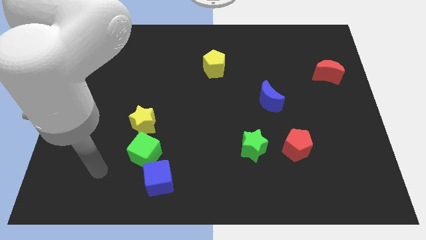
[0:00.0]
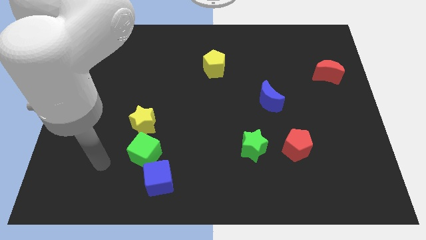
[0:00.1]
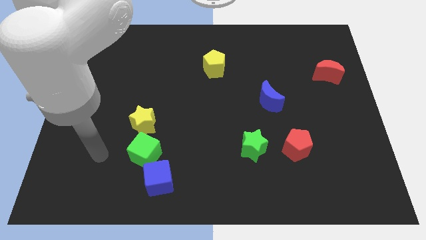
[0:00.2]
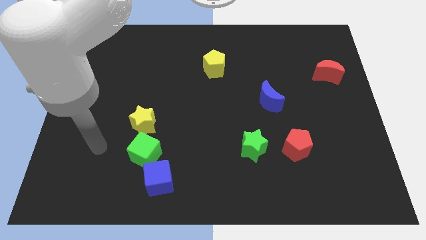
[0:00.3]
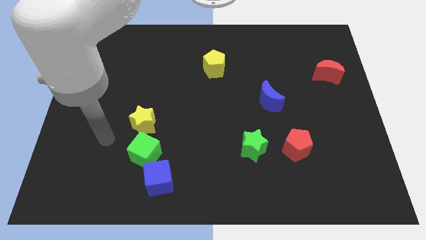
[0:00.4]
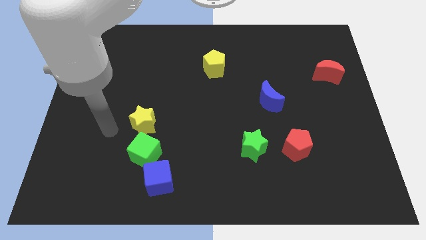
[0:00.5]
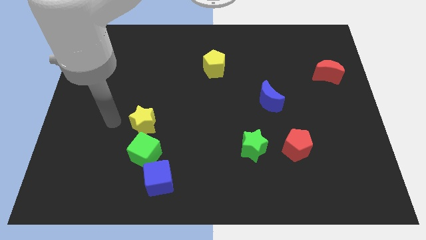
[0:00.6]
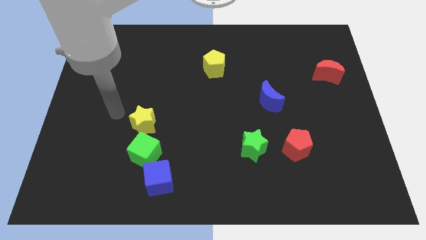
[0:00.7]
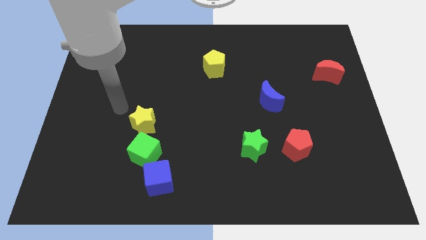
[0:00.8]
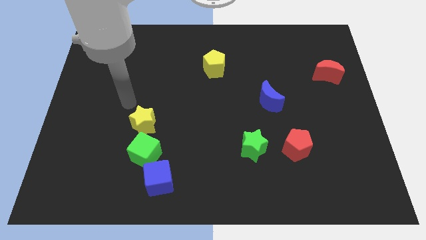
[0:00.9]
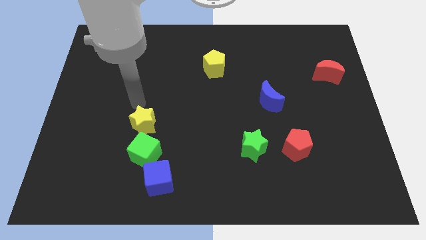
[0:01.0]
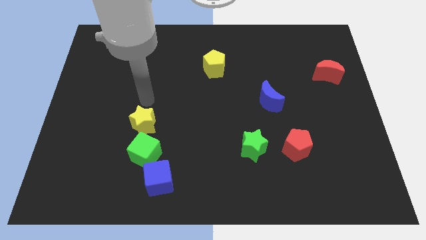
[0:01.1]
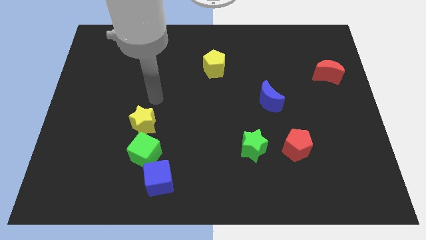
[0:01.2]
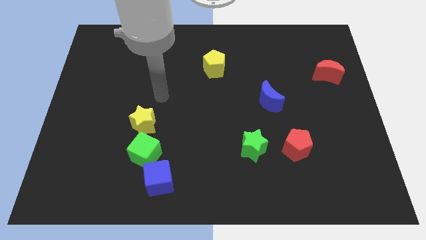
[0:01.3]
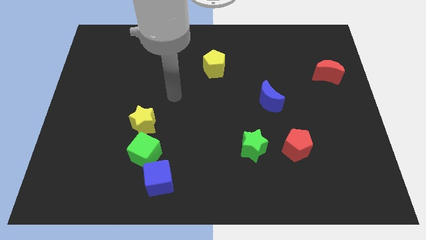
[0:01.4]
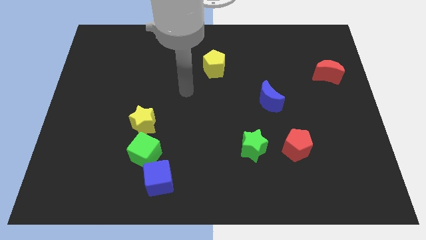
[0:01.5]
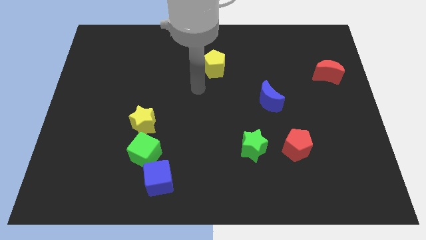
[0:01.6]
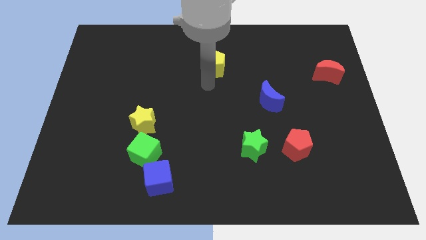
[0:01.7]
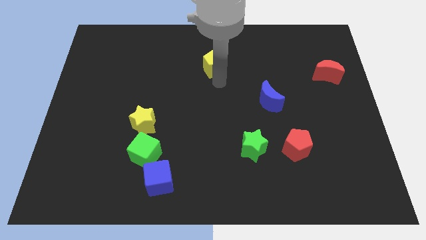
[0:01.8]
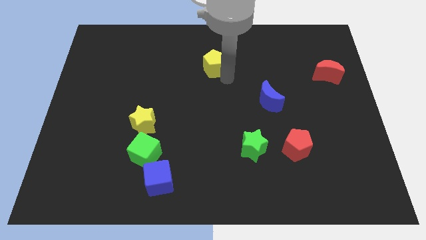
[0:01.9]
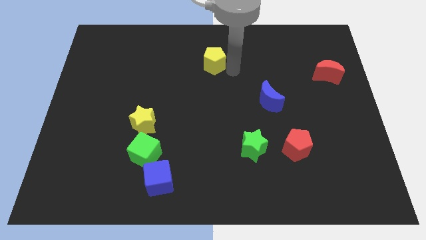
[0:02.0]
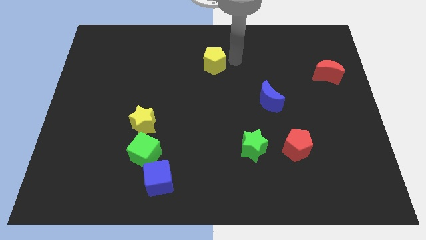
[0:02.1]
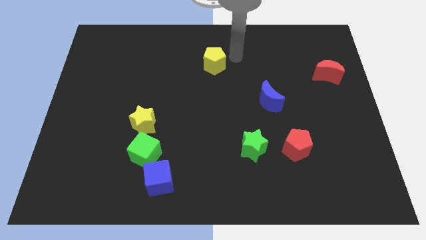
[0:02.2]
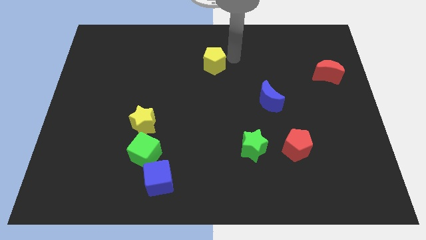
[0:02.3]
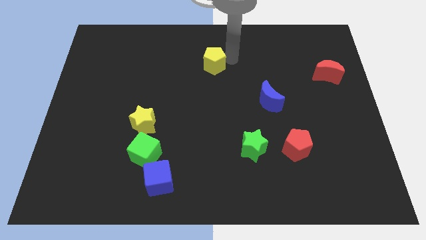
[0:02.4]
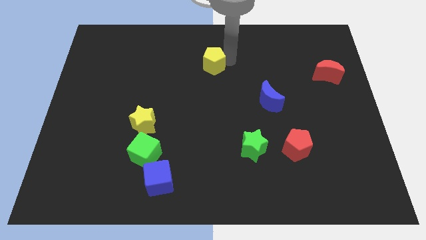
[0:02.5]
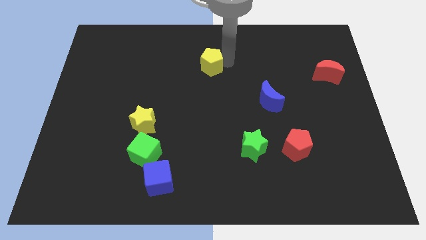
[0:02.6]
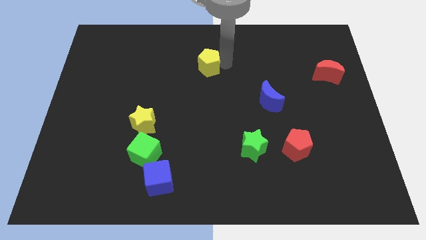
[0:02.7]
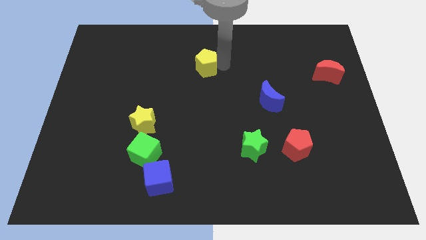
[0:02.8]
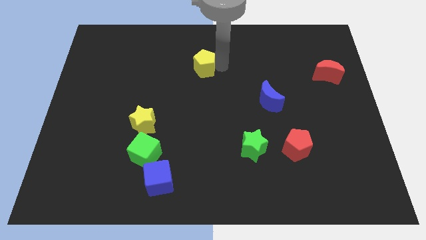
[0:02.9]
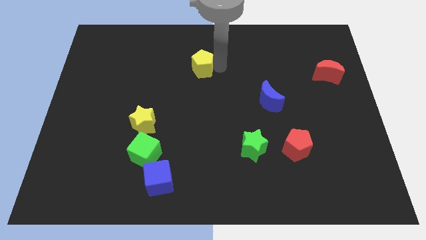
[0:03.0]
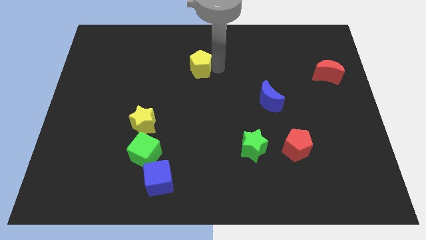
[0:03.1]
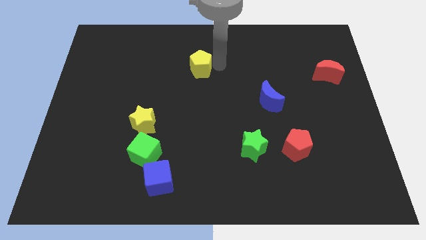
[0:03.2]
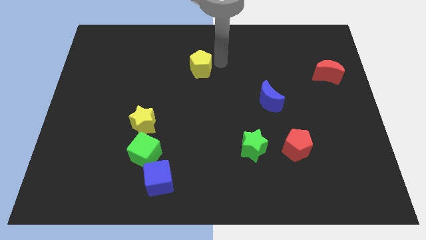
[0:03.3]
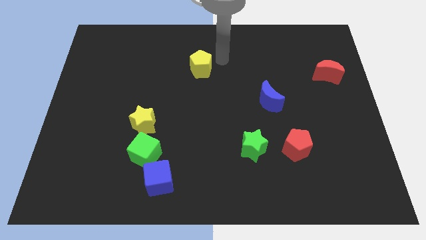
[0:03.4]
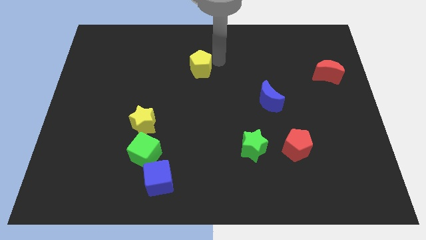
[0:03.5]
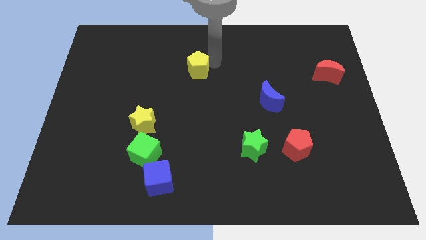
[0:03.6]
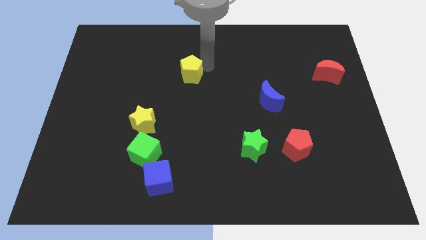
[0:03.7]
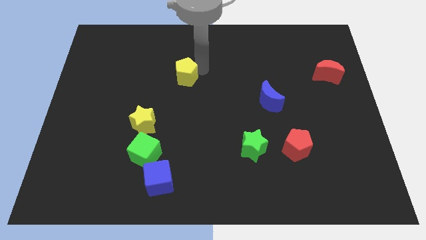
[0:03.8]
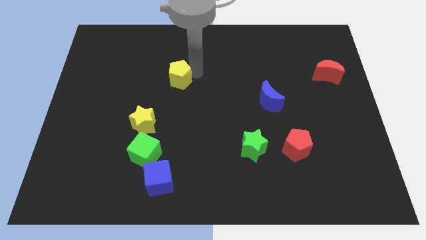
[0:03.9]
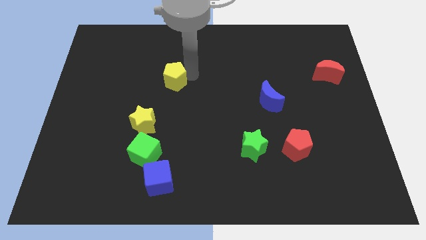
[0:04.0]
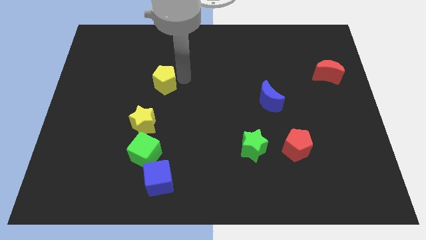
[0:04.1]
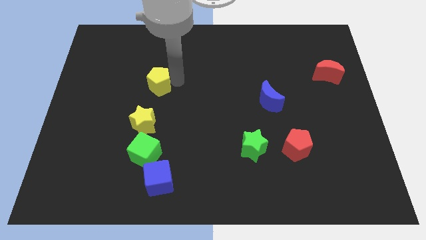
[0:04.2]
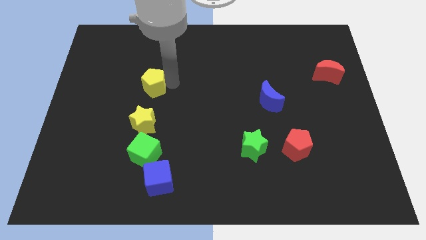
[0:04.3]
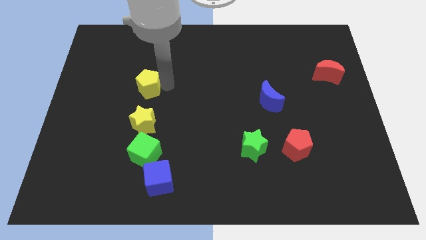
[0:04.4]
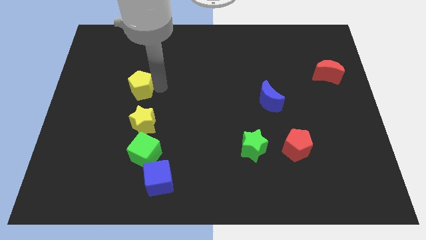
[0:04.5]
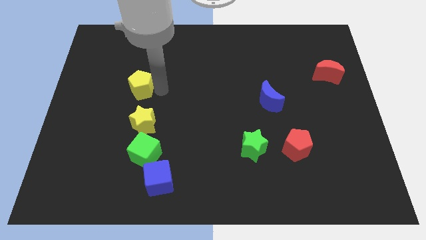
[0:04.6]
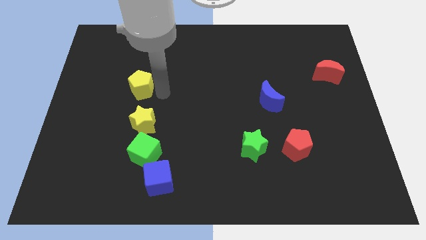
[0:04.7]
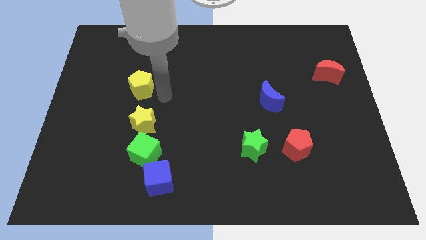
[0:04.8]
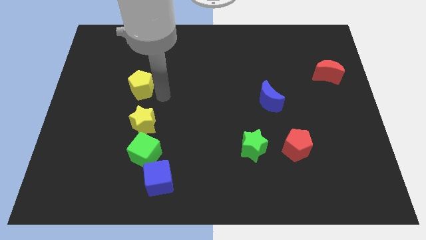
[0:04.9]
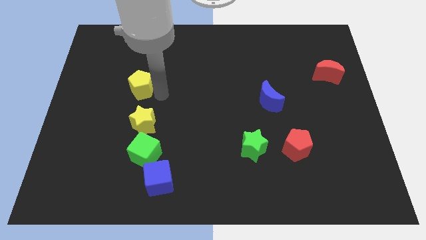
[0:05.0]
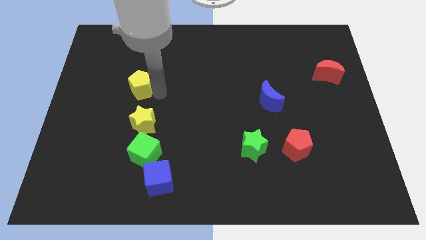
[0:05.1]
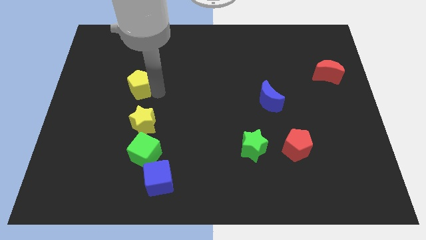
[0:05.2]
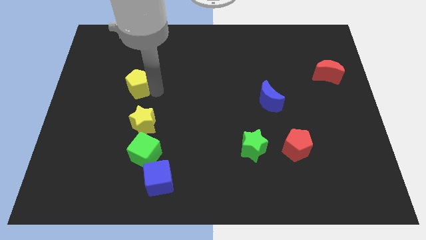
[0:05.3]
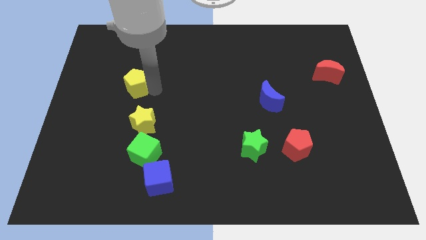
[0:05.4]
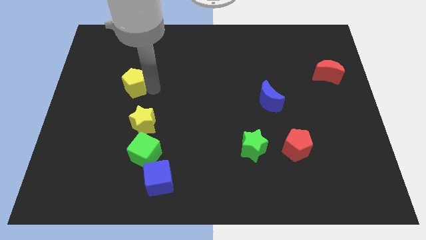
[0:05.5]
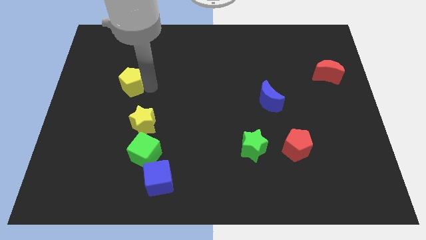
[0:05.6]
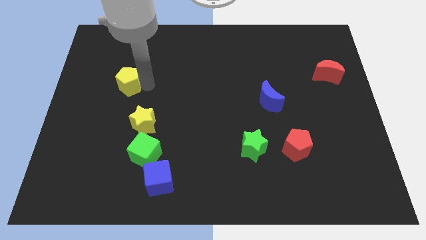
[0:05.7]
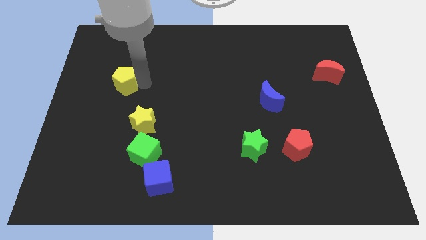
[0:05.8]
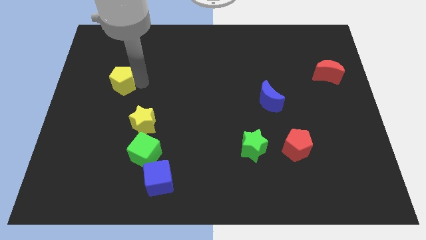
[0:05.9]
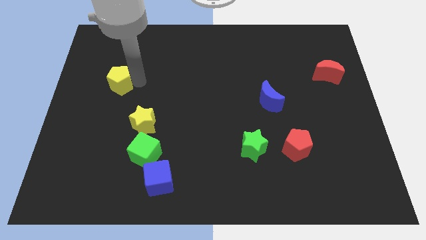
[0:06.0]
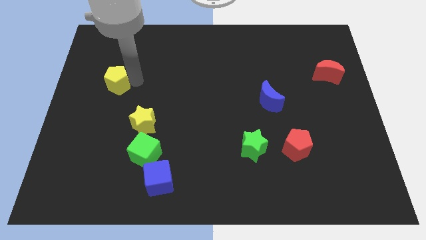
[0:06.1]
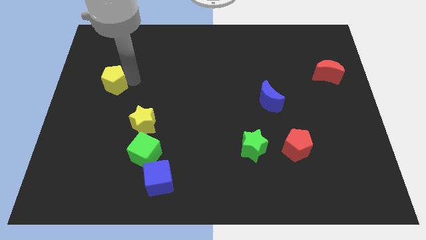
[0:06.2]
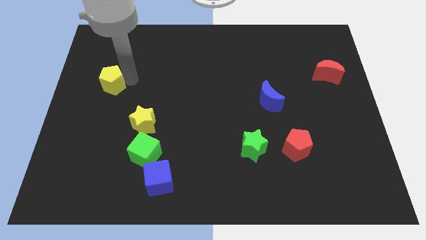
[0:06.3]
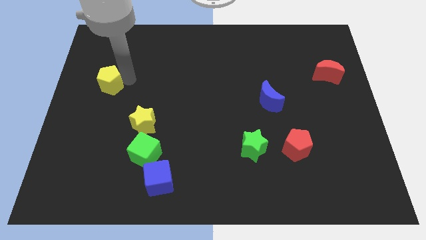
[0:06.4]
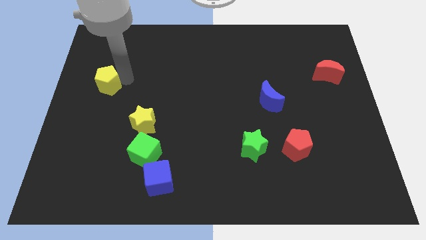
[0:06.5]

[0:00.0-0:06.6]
push the yellow pentagon to the center left
